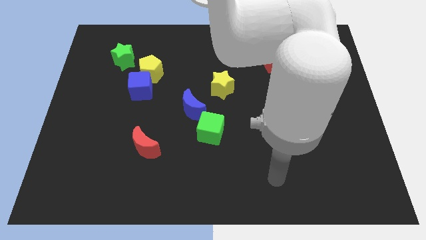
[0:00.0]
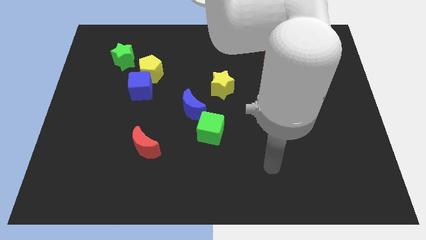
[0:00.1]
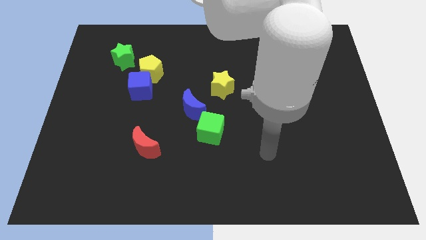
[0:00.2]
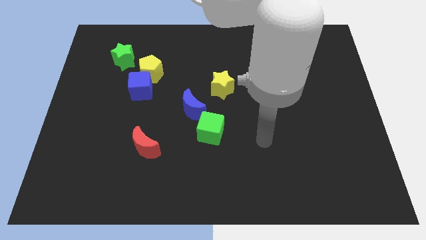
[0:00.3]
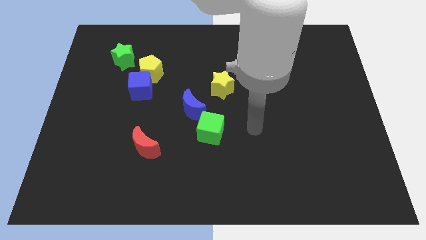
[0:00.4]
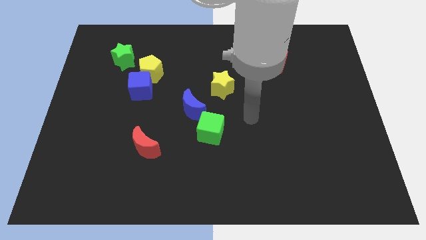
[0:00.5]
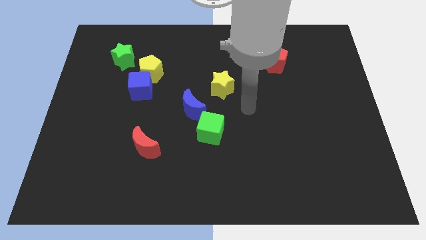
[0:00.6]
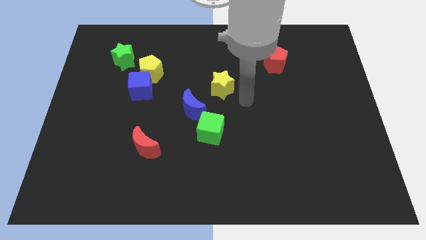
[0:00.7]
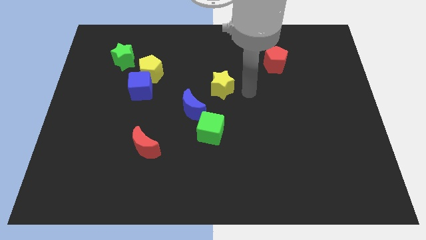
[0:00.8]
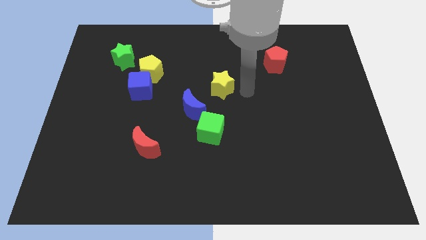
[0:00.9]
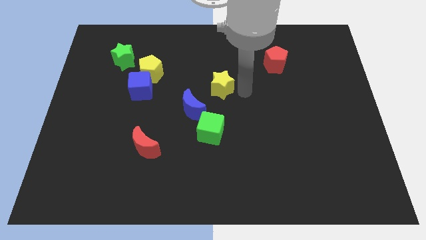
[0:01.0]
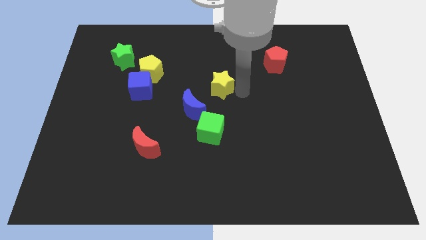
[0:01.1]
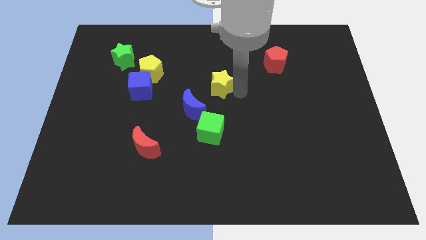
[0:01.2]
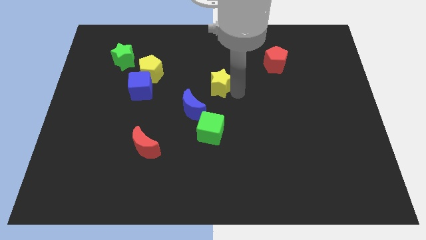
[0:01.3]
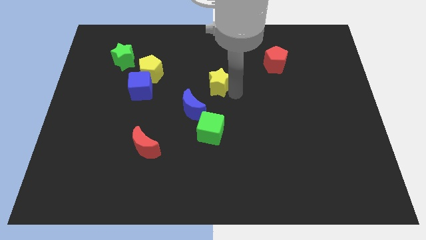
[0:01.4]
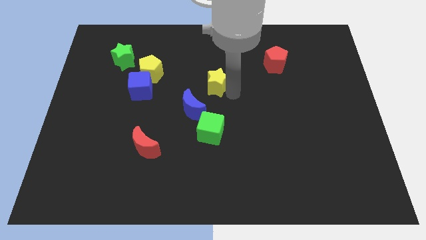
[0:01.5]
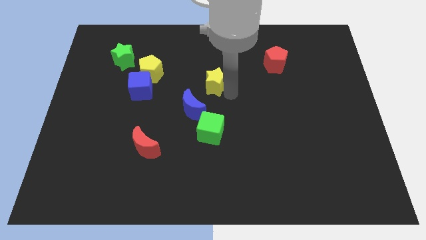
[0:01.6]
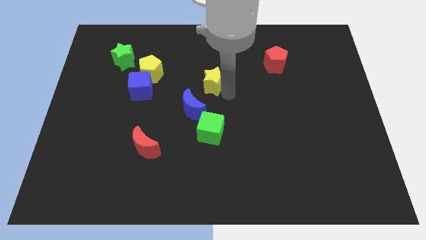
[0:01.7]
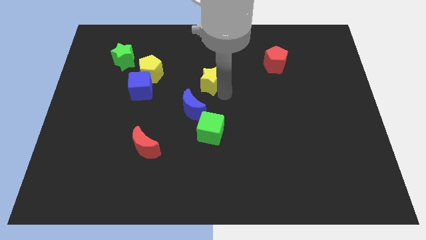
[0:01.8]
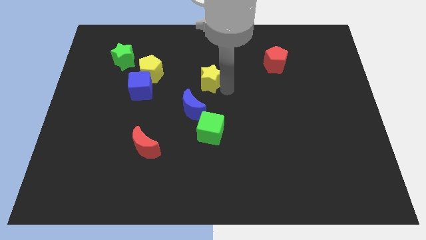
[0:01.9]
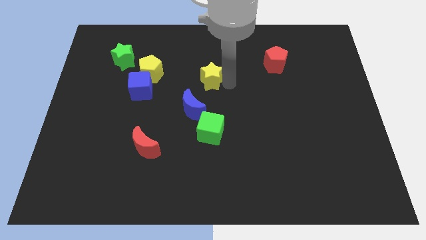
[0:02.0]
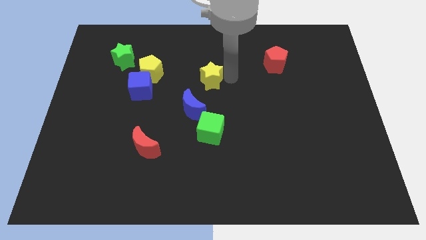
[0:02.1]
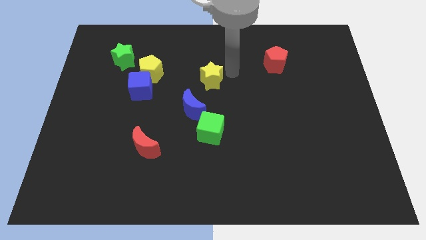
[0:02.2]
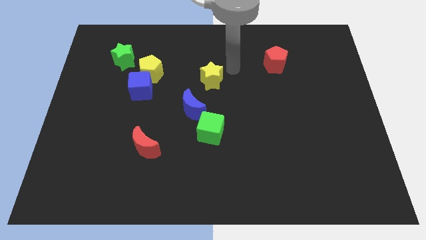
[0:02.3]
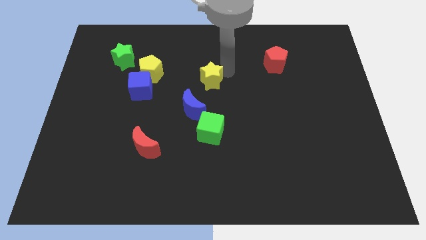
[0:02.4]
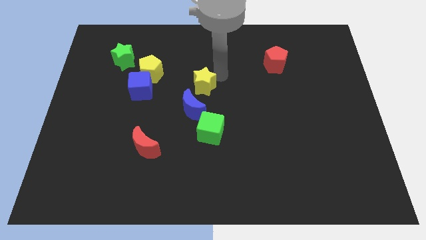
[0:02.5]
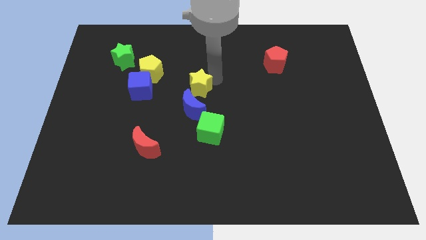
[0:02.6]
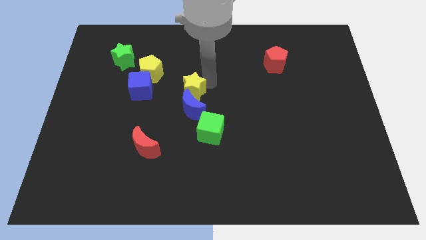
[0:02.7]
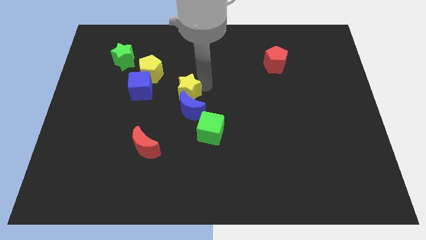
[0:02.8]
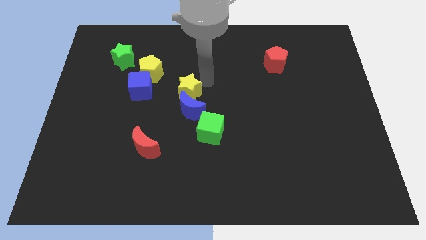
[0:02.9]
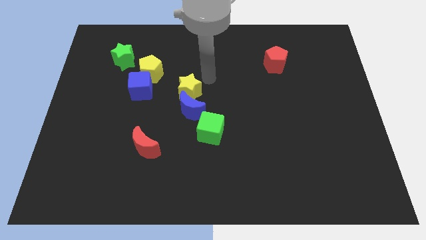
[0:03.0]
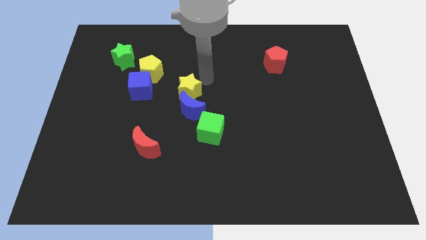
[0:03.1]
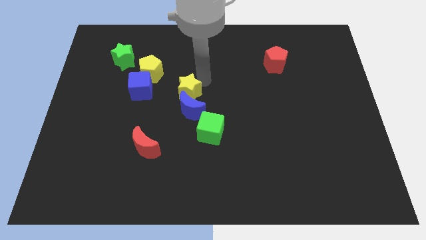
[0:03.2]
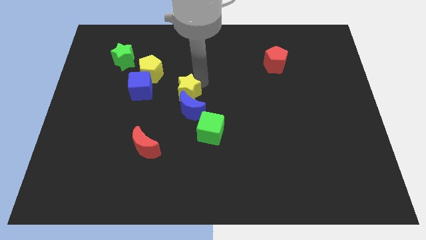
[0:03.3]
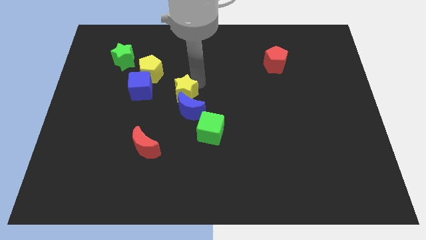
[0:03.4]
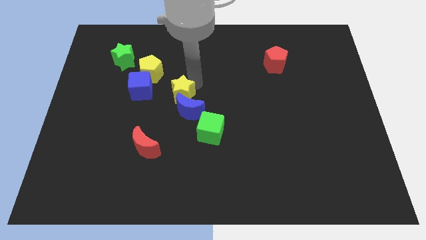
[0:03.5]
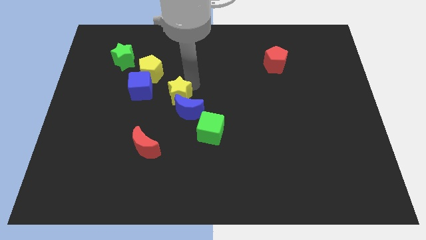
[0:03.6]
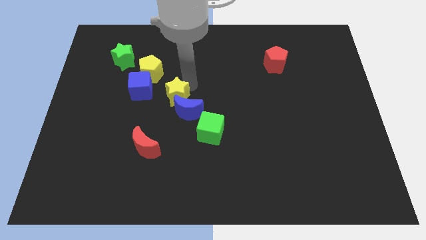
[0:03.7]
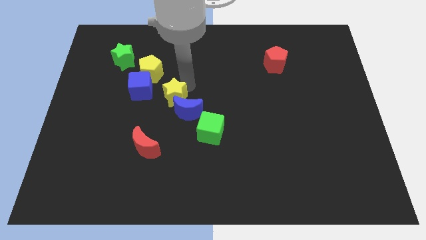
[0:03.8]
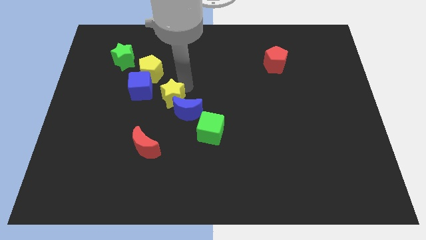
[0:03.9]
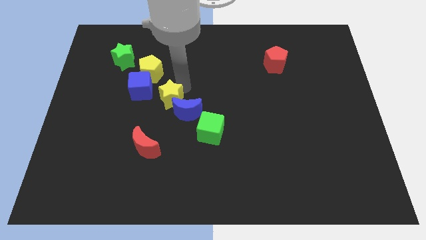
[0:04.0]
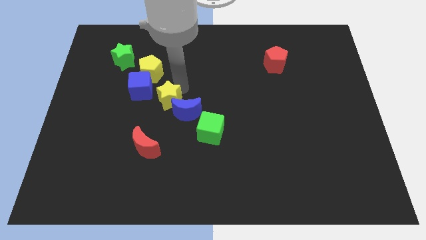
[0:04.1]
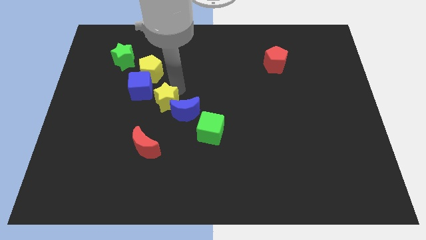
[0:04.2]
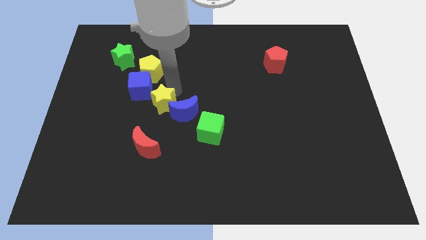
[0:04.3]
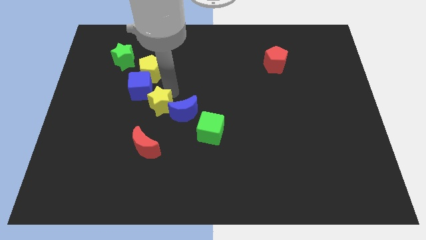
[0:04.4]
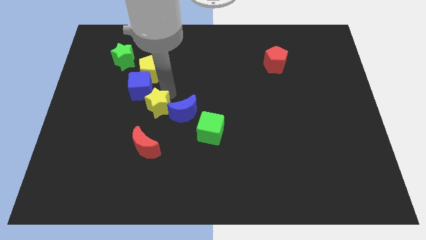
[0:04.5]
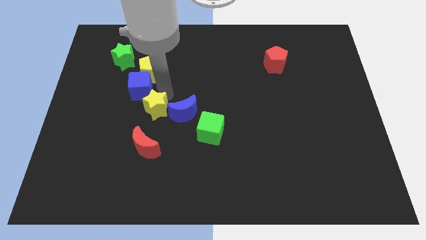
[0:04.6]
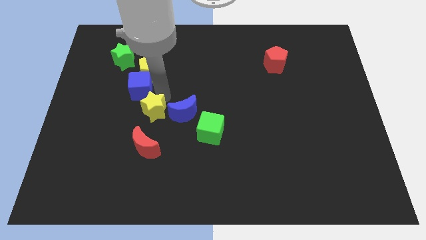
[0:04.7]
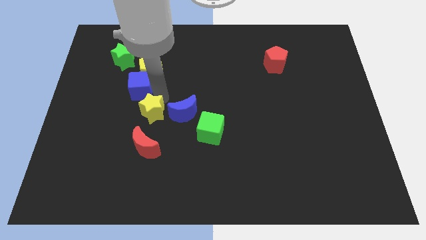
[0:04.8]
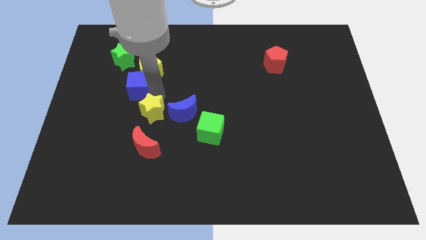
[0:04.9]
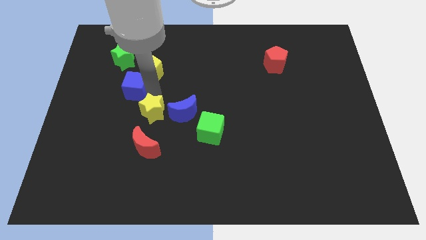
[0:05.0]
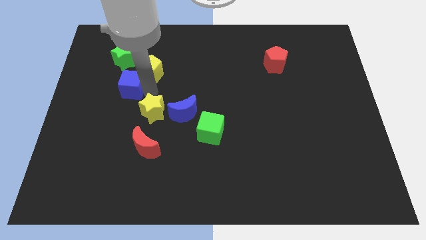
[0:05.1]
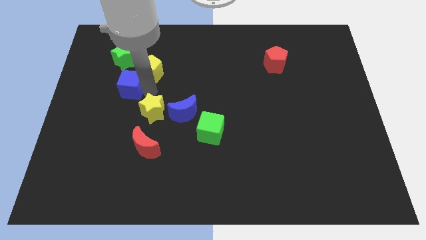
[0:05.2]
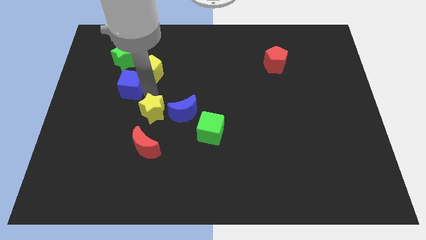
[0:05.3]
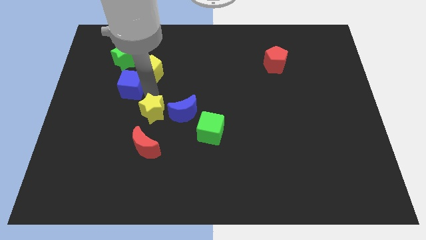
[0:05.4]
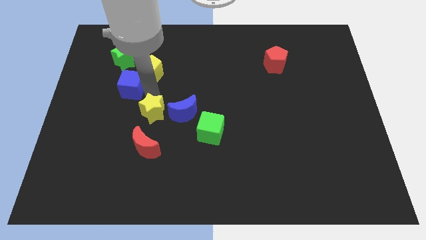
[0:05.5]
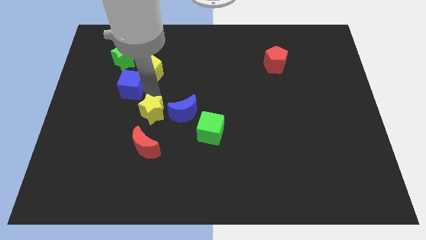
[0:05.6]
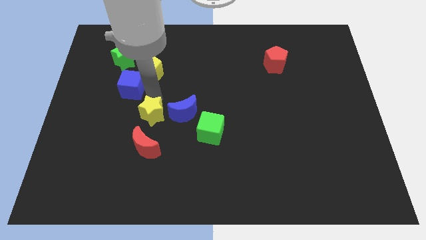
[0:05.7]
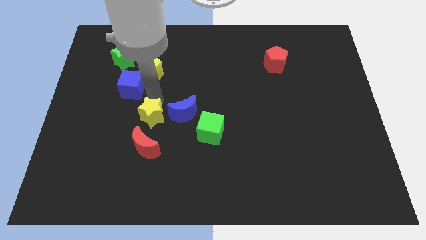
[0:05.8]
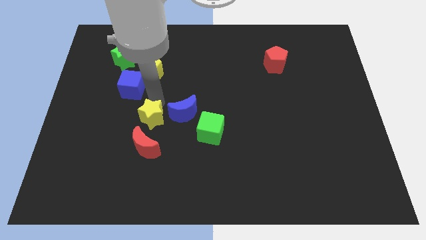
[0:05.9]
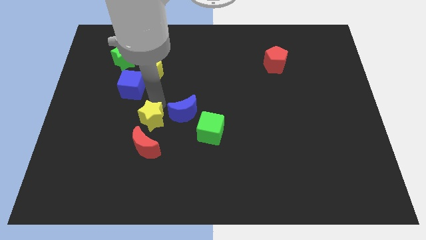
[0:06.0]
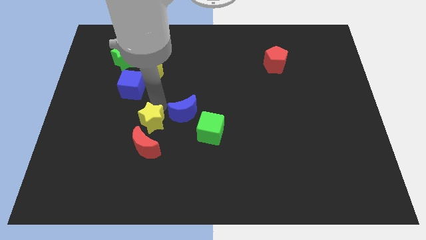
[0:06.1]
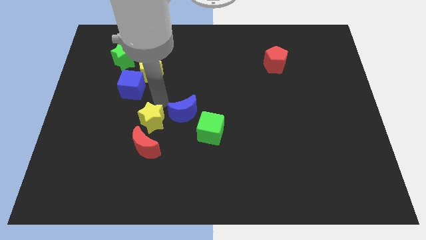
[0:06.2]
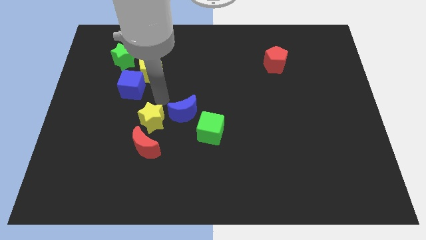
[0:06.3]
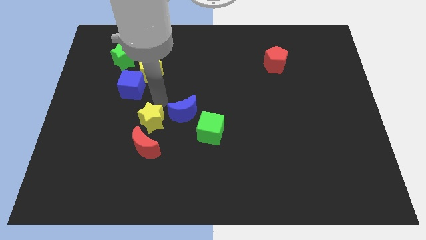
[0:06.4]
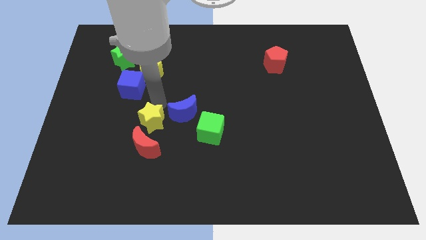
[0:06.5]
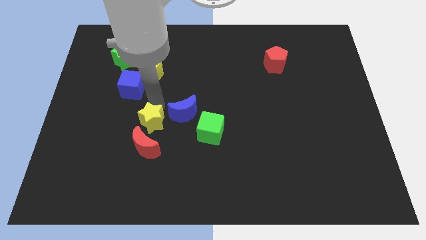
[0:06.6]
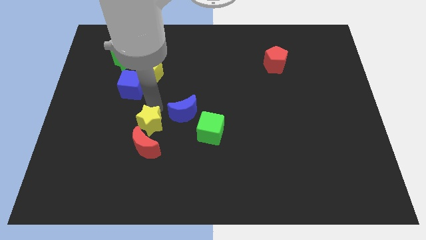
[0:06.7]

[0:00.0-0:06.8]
slide the yellow star to the red moon

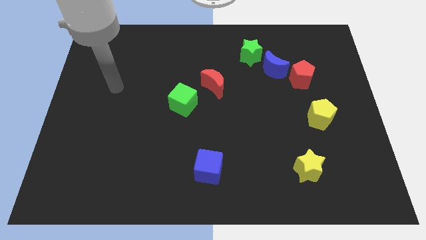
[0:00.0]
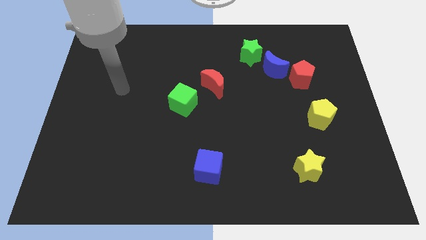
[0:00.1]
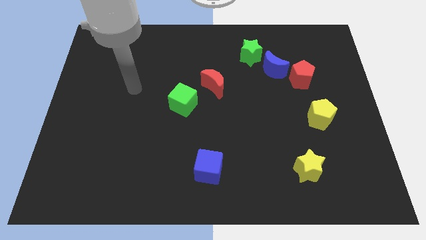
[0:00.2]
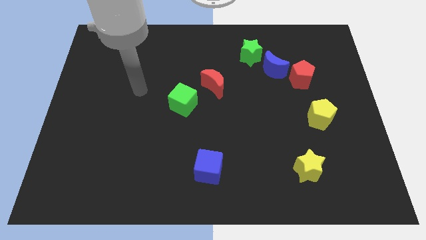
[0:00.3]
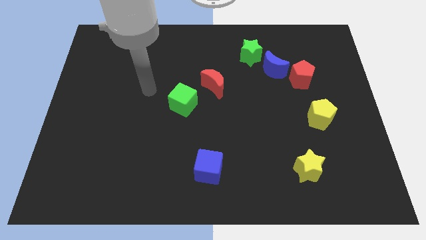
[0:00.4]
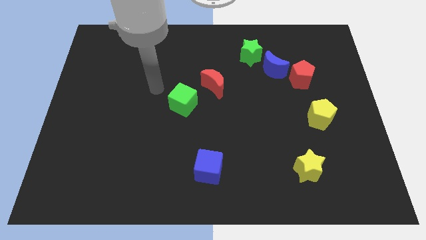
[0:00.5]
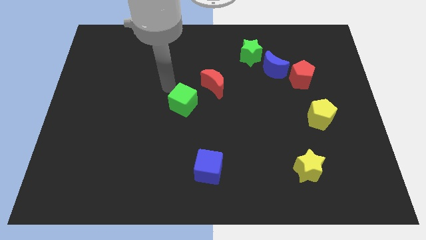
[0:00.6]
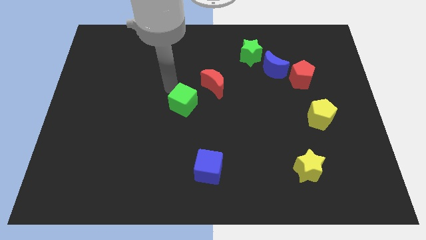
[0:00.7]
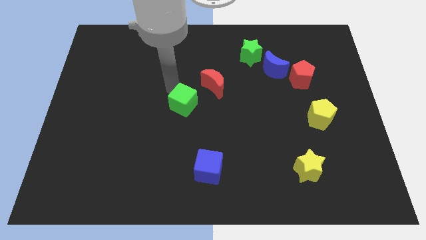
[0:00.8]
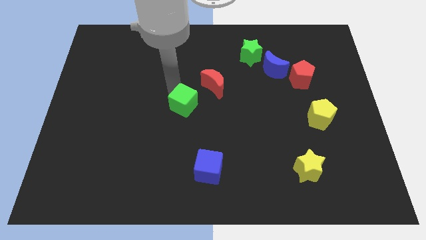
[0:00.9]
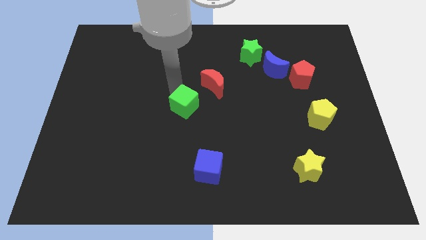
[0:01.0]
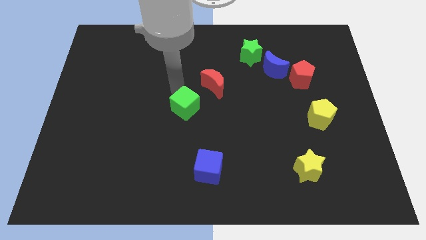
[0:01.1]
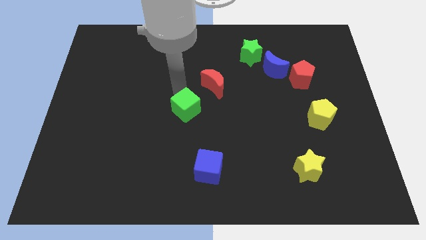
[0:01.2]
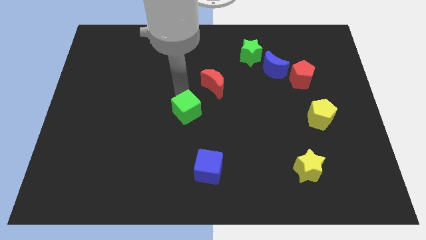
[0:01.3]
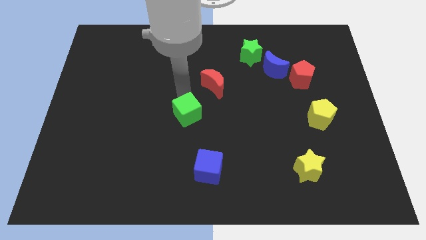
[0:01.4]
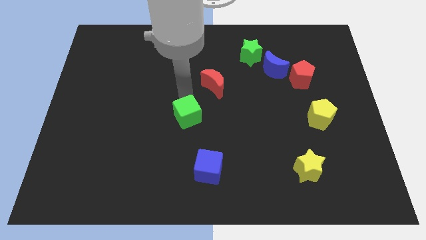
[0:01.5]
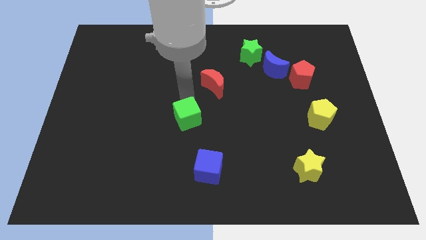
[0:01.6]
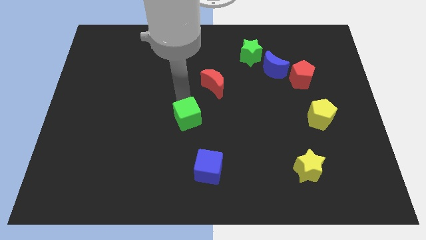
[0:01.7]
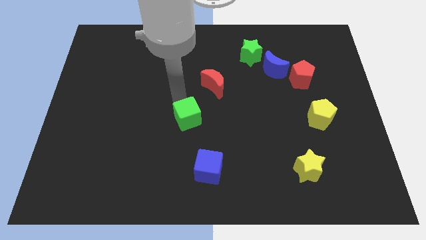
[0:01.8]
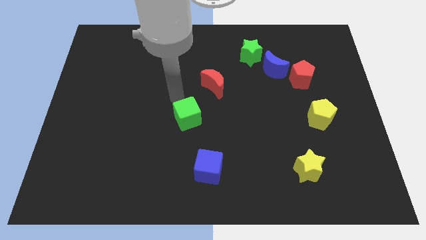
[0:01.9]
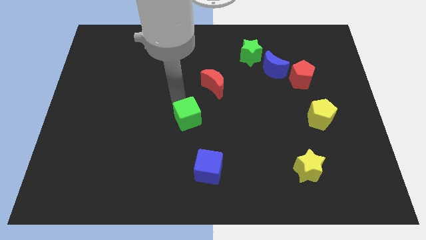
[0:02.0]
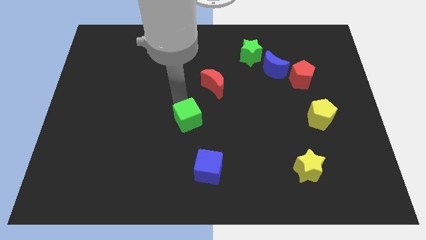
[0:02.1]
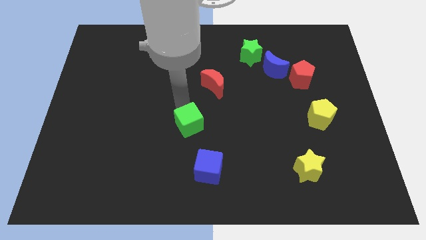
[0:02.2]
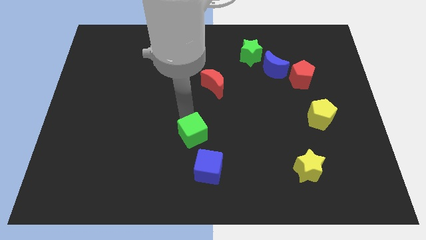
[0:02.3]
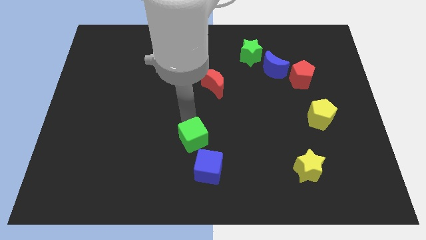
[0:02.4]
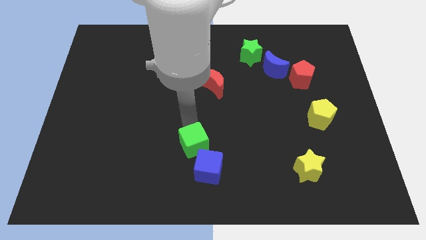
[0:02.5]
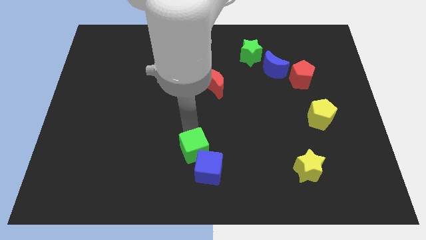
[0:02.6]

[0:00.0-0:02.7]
push the green cube to the blue cube
